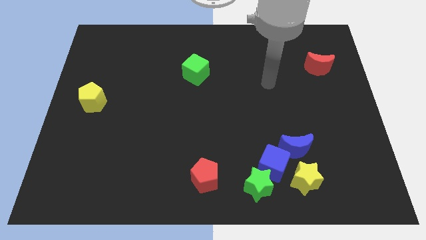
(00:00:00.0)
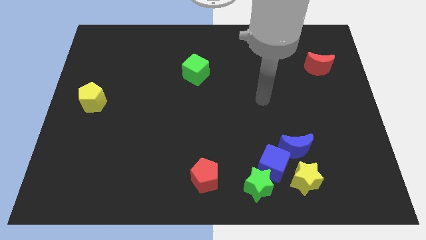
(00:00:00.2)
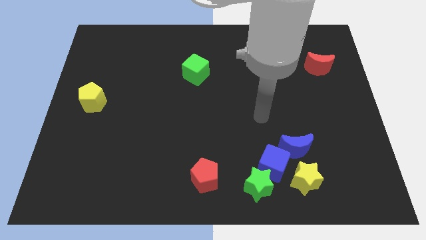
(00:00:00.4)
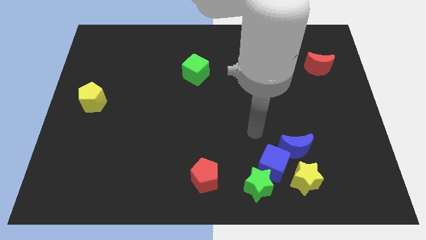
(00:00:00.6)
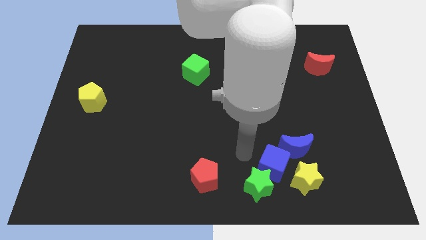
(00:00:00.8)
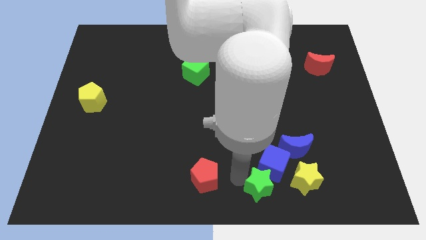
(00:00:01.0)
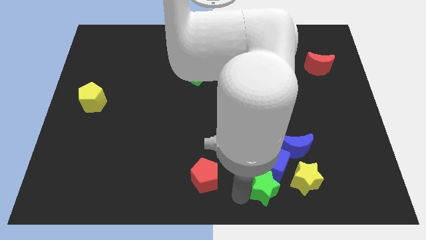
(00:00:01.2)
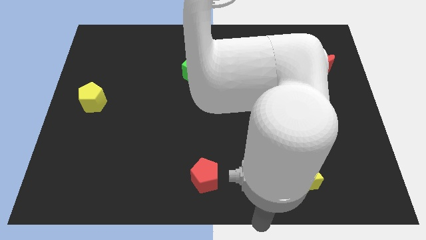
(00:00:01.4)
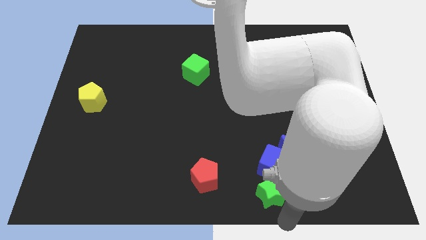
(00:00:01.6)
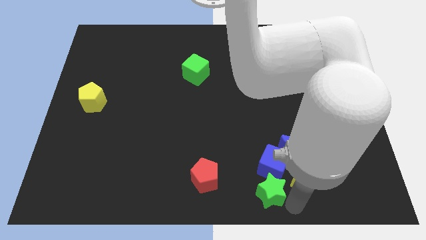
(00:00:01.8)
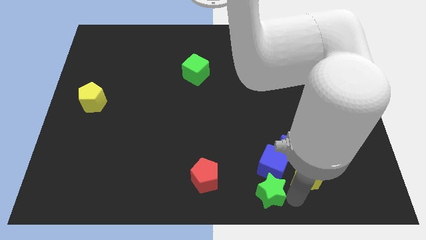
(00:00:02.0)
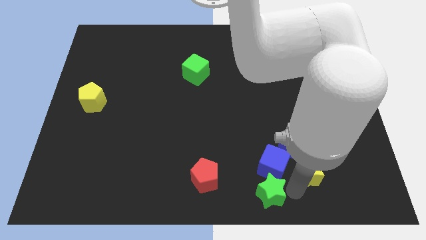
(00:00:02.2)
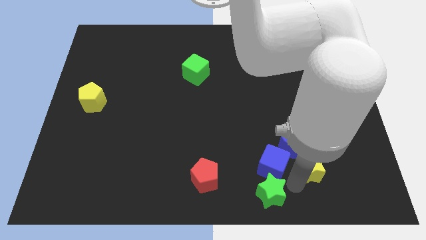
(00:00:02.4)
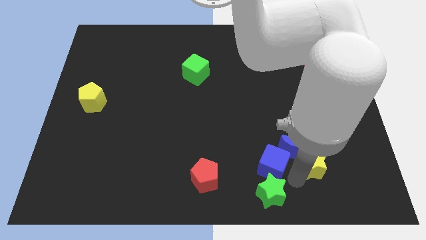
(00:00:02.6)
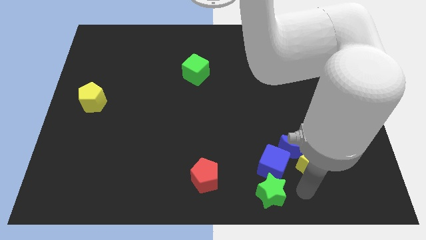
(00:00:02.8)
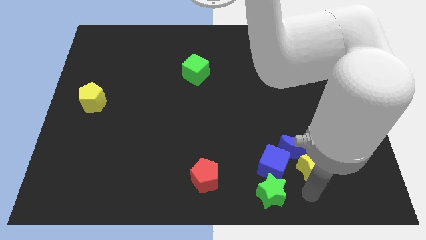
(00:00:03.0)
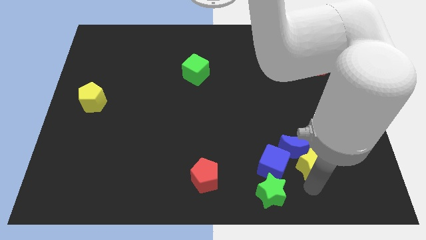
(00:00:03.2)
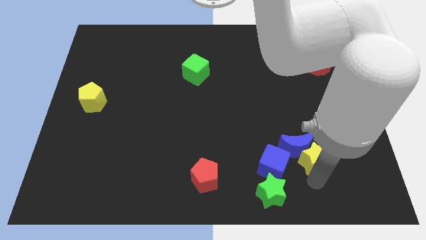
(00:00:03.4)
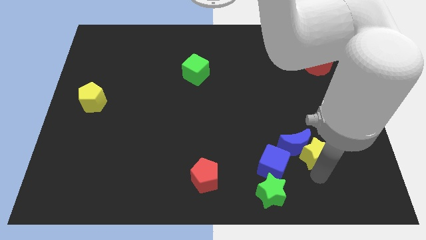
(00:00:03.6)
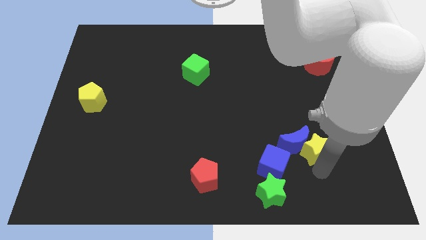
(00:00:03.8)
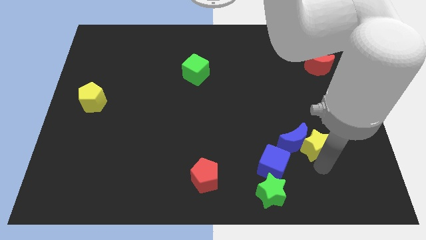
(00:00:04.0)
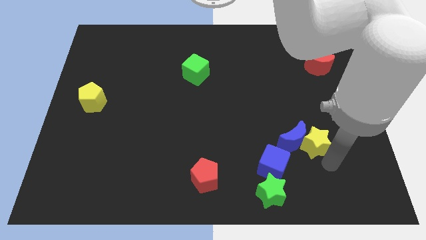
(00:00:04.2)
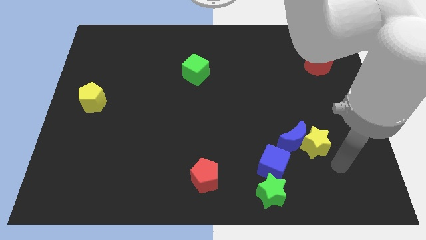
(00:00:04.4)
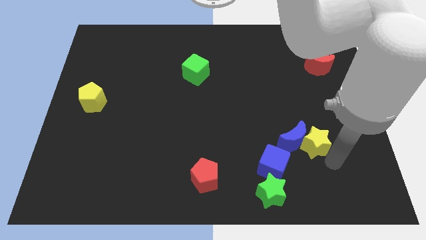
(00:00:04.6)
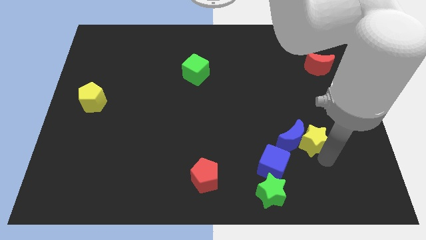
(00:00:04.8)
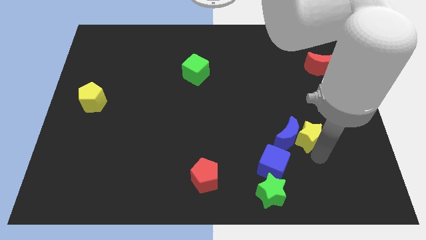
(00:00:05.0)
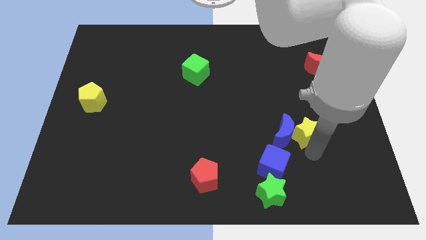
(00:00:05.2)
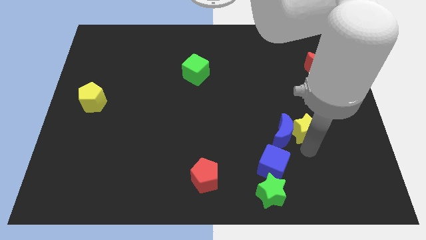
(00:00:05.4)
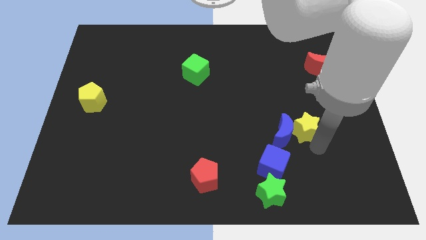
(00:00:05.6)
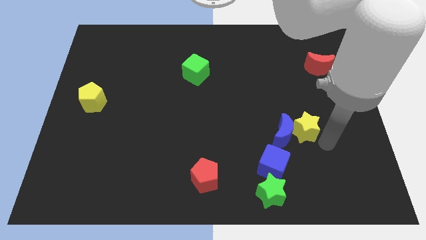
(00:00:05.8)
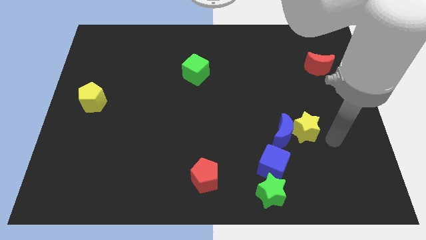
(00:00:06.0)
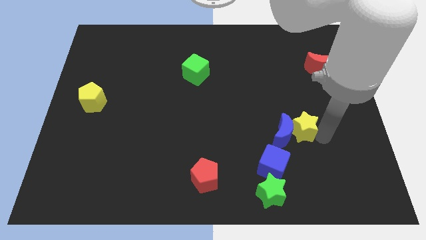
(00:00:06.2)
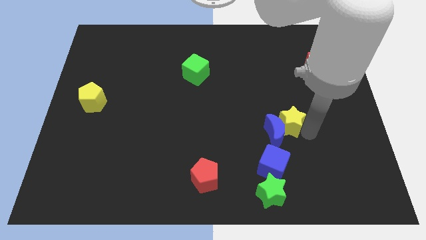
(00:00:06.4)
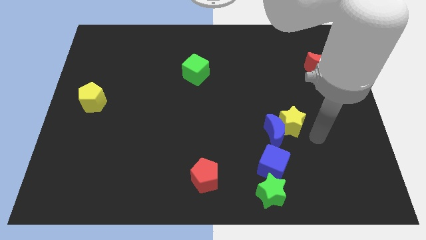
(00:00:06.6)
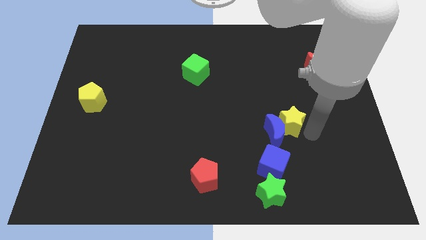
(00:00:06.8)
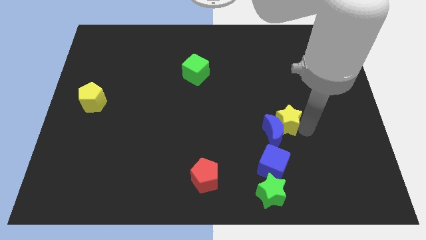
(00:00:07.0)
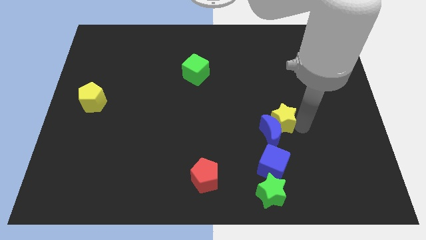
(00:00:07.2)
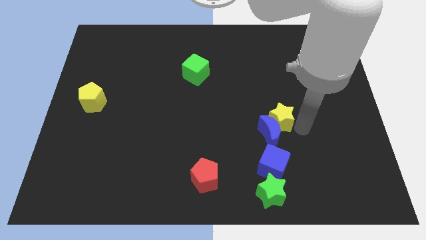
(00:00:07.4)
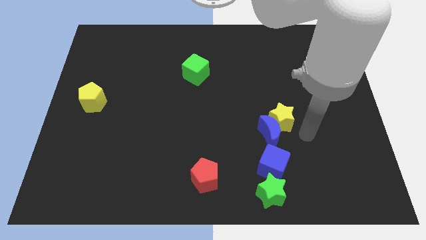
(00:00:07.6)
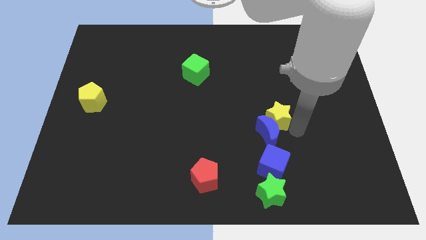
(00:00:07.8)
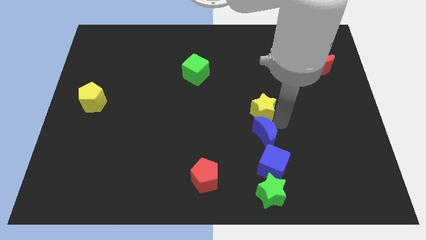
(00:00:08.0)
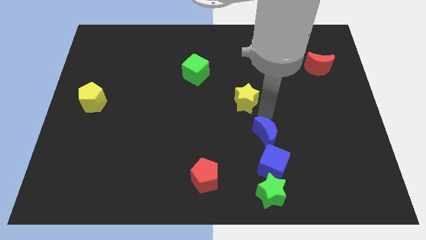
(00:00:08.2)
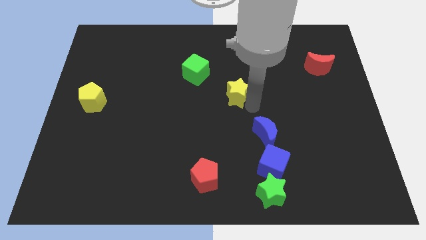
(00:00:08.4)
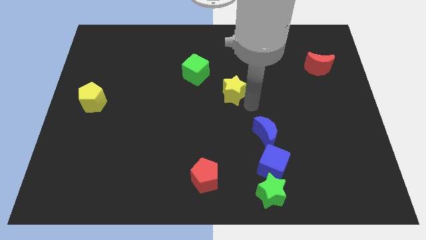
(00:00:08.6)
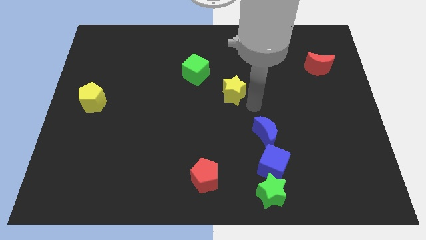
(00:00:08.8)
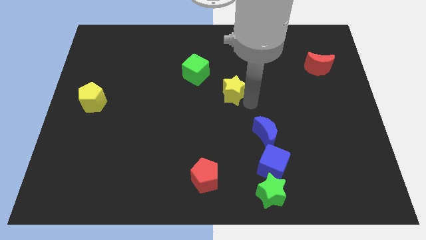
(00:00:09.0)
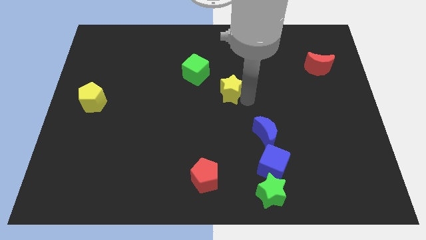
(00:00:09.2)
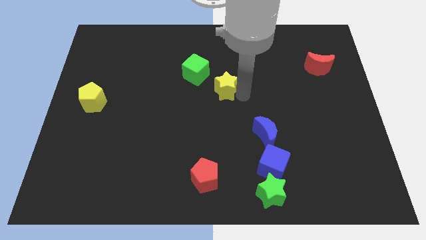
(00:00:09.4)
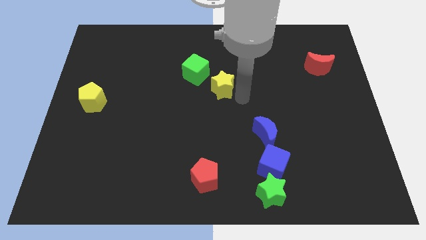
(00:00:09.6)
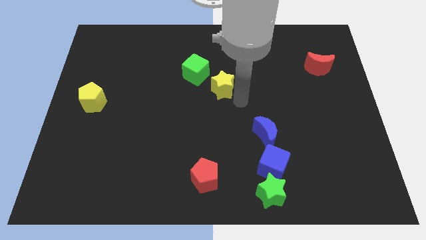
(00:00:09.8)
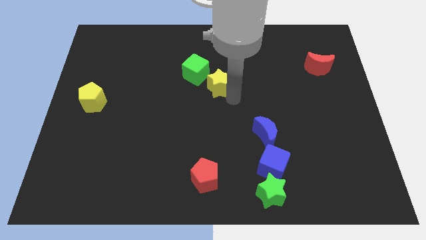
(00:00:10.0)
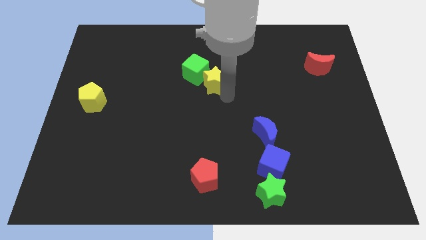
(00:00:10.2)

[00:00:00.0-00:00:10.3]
move the yellow star towards the green cube

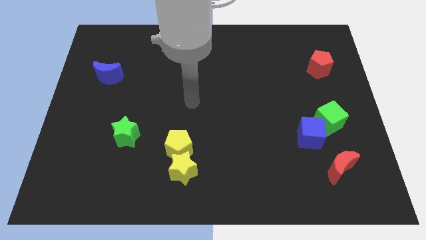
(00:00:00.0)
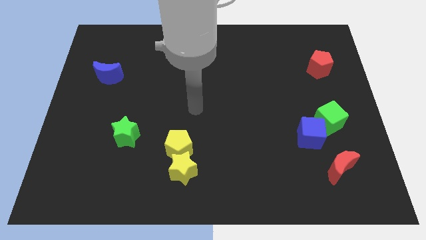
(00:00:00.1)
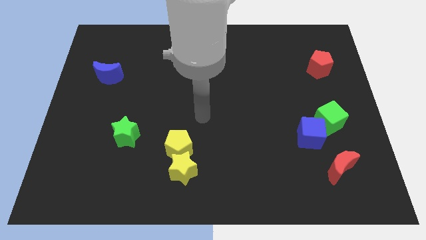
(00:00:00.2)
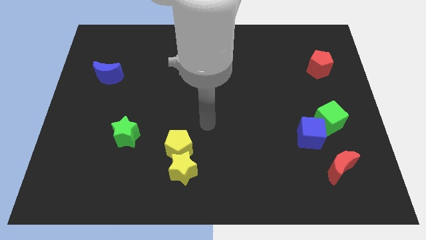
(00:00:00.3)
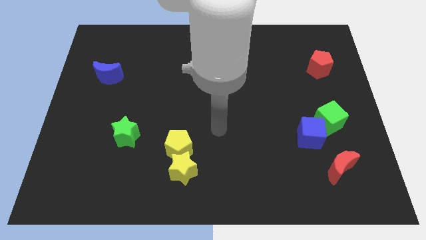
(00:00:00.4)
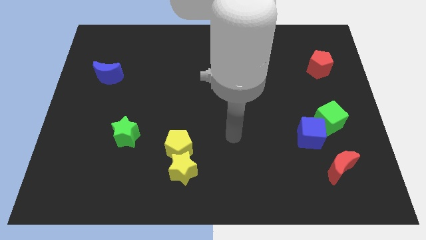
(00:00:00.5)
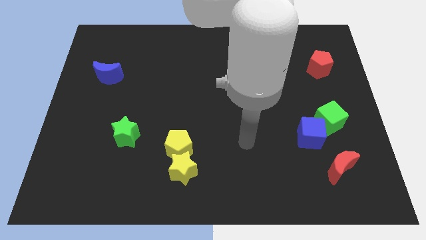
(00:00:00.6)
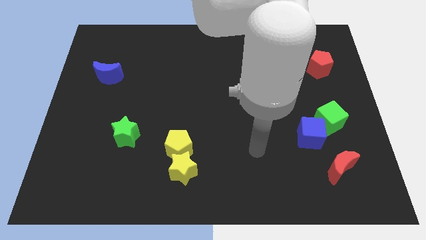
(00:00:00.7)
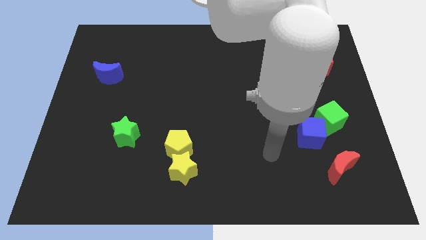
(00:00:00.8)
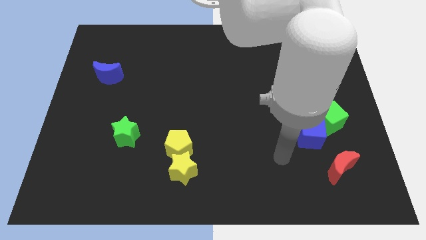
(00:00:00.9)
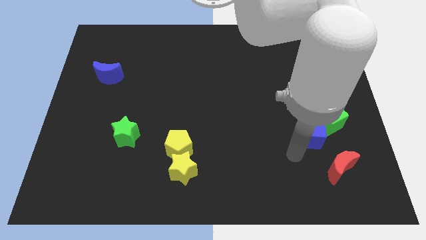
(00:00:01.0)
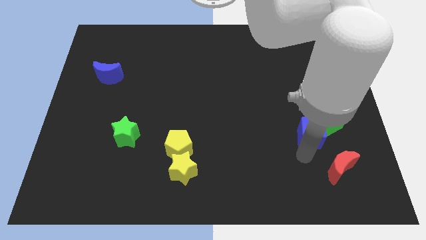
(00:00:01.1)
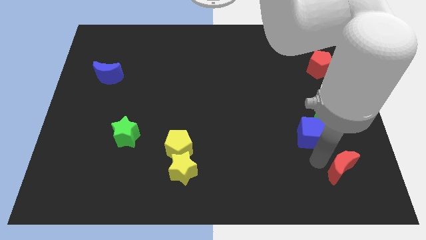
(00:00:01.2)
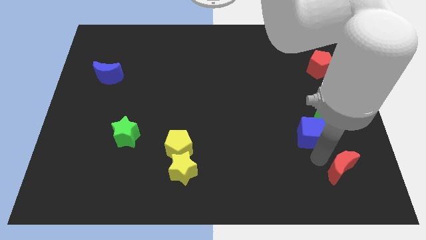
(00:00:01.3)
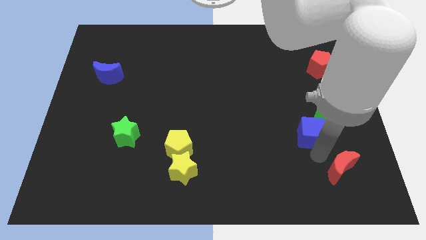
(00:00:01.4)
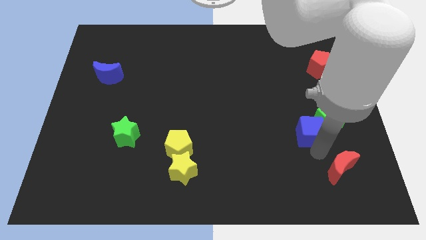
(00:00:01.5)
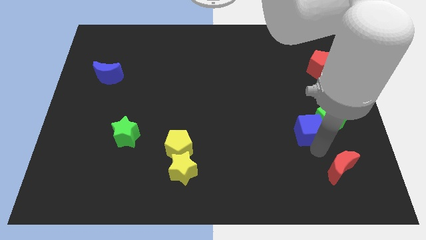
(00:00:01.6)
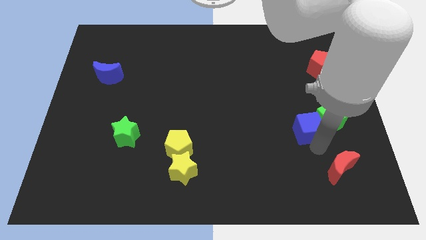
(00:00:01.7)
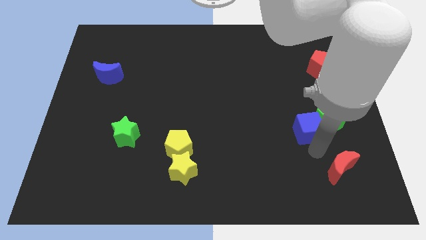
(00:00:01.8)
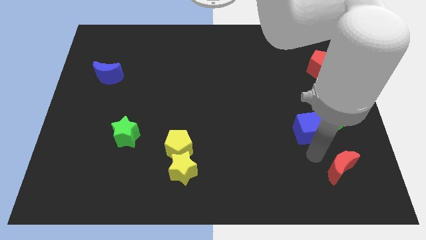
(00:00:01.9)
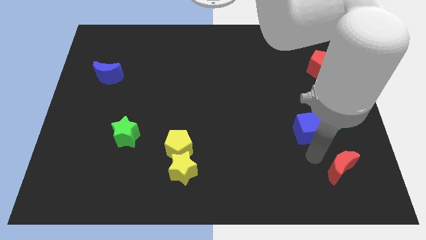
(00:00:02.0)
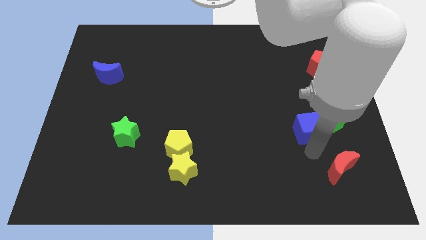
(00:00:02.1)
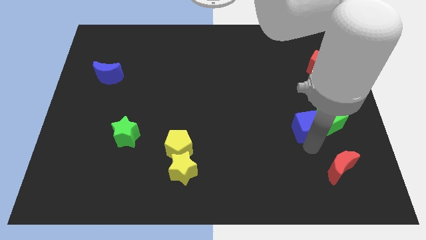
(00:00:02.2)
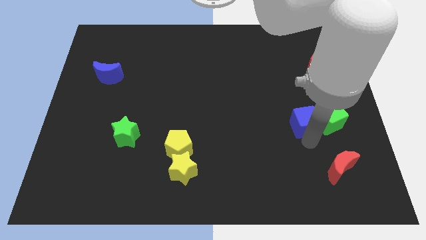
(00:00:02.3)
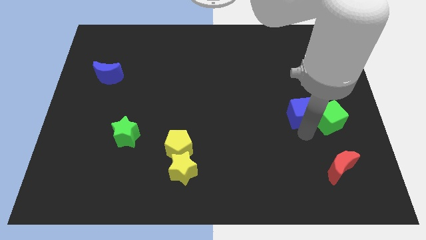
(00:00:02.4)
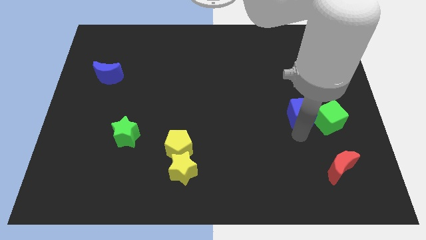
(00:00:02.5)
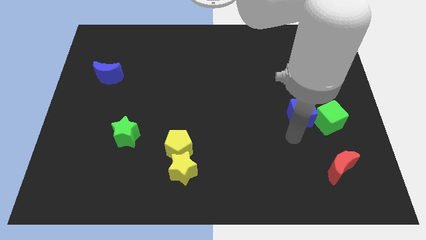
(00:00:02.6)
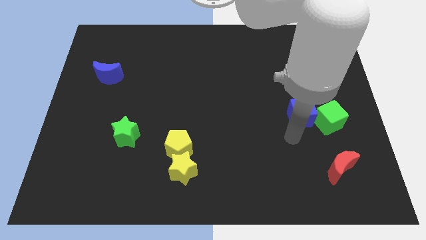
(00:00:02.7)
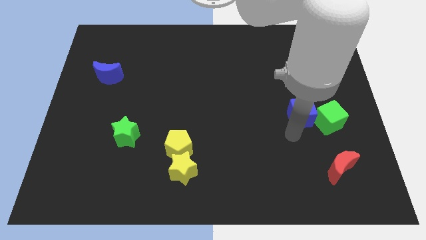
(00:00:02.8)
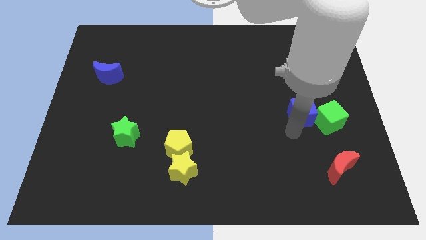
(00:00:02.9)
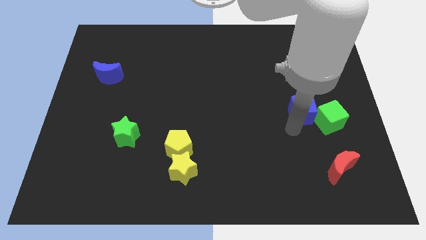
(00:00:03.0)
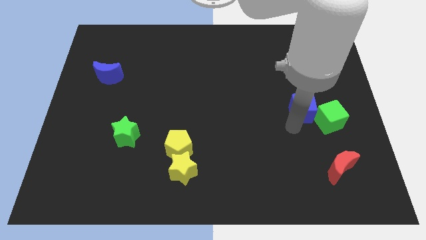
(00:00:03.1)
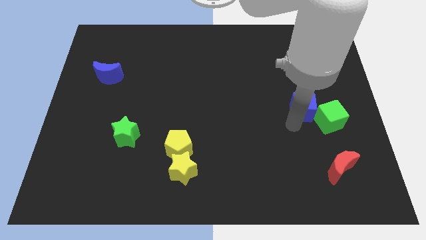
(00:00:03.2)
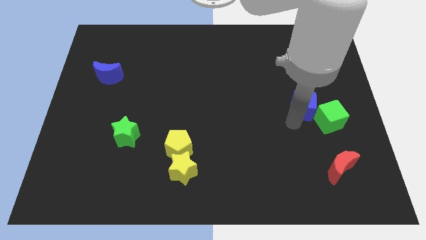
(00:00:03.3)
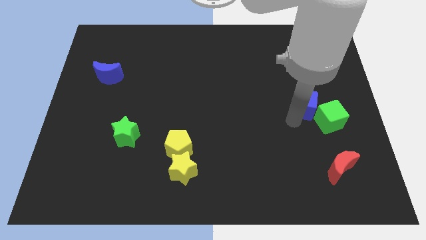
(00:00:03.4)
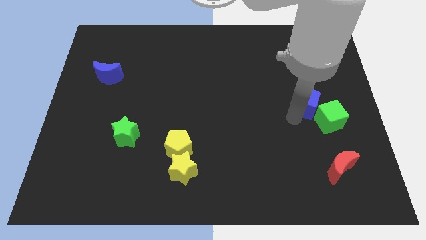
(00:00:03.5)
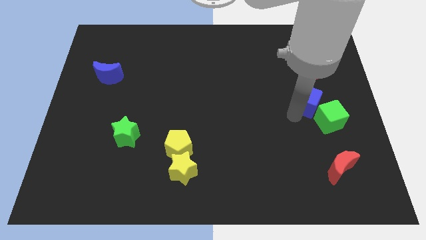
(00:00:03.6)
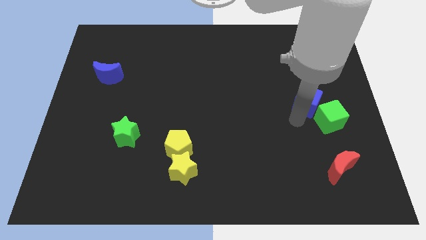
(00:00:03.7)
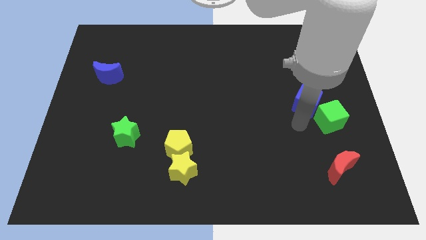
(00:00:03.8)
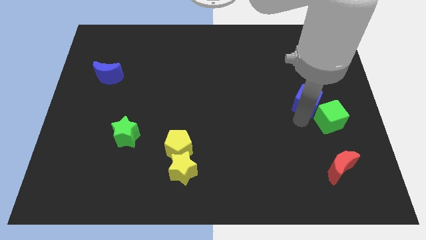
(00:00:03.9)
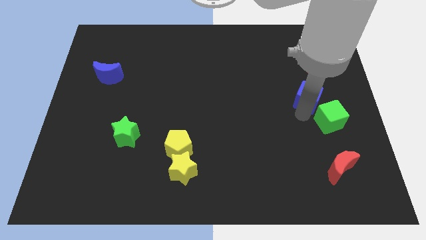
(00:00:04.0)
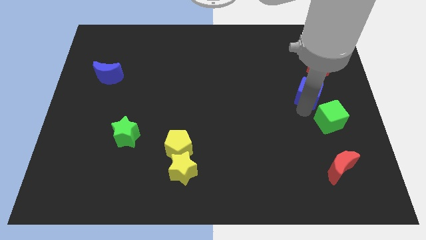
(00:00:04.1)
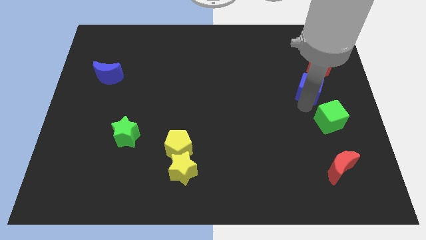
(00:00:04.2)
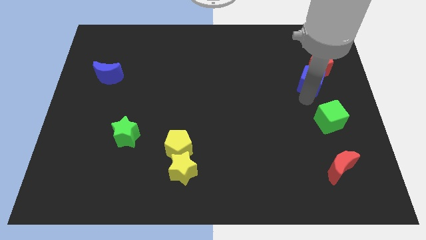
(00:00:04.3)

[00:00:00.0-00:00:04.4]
move the blue cube next to the red pentagon
